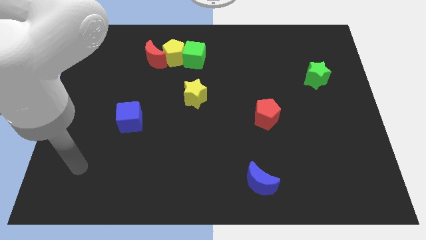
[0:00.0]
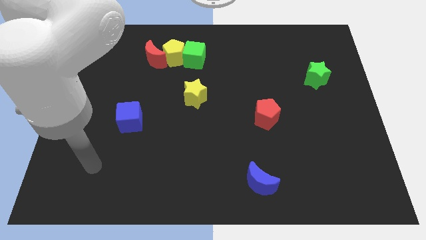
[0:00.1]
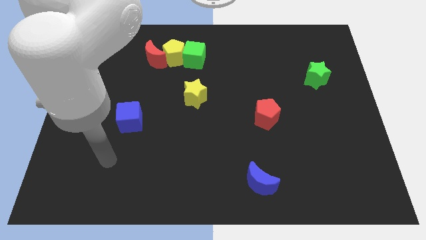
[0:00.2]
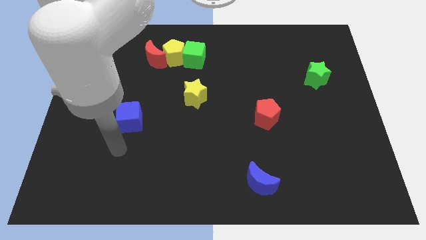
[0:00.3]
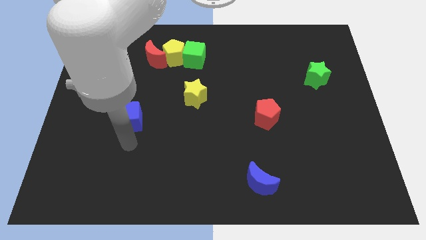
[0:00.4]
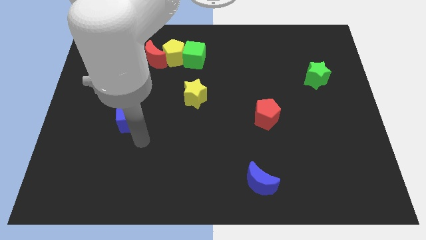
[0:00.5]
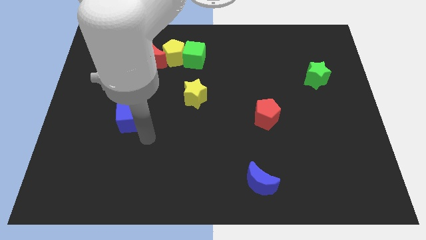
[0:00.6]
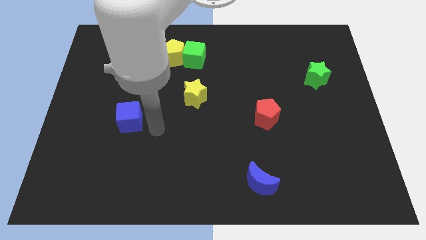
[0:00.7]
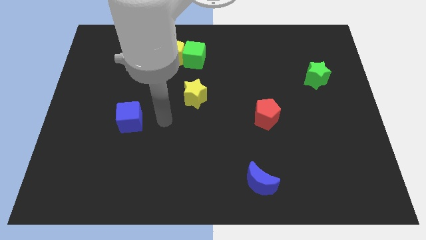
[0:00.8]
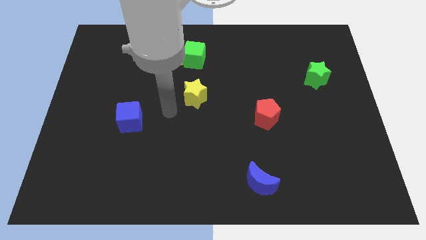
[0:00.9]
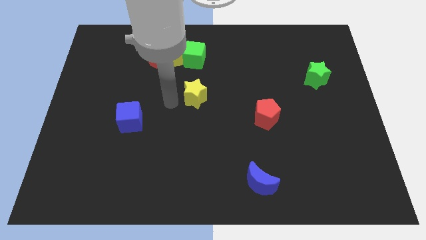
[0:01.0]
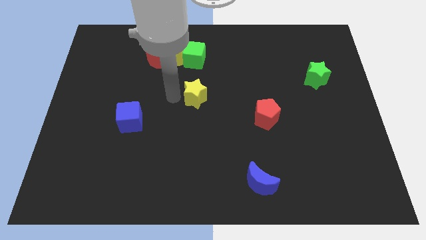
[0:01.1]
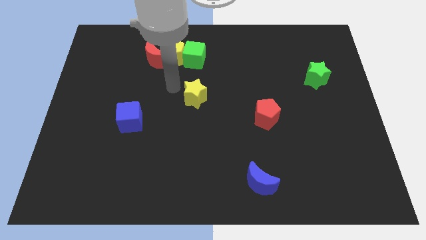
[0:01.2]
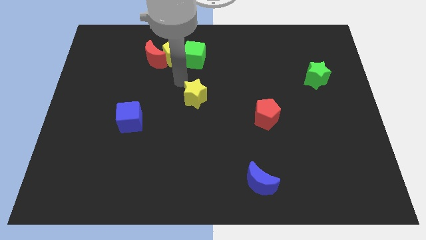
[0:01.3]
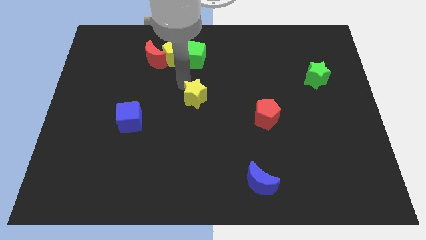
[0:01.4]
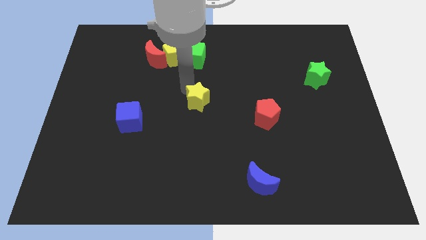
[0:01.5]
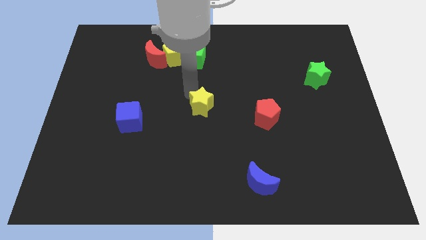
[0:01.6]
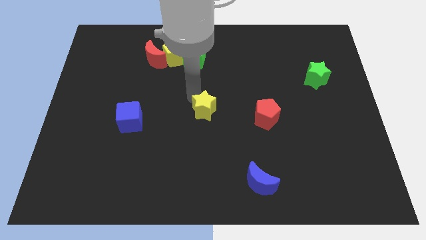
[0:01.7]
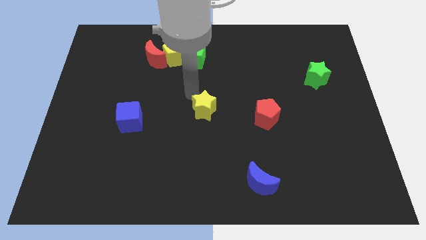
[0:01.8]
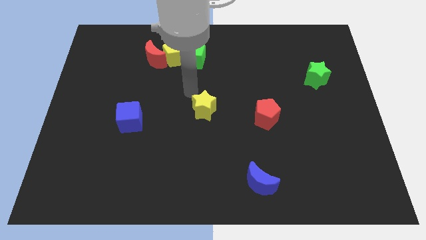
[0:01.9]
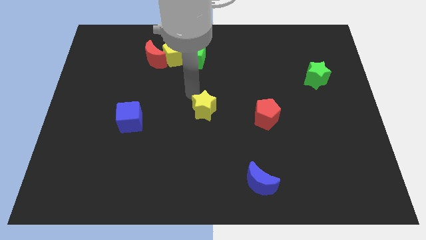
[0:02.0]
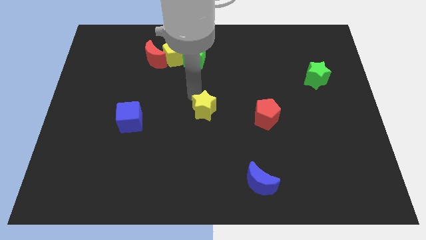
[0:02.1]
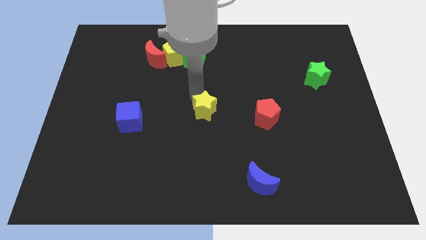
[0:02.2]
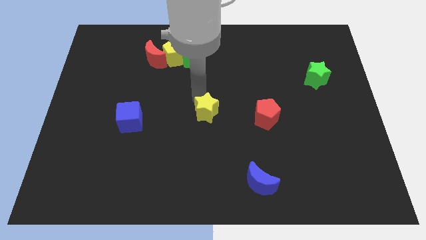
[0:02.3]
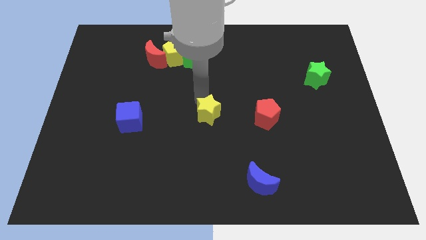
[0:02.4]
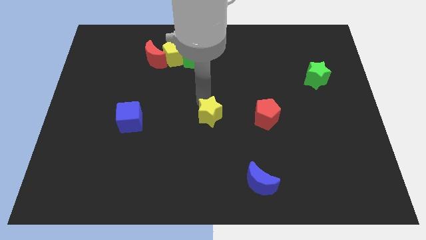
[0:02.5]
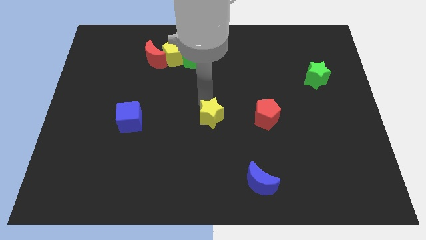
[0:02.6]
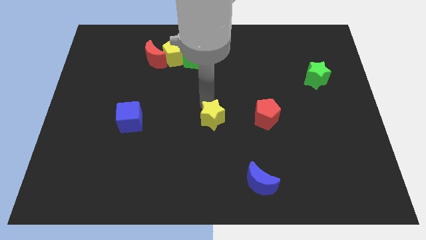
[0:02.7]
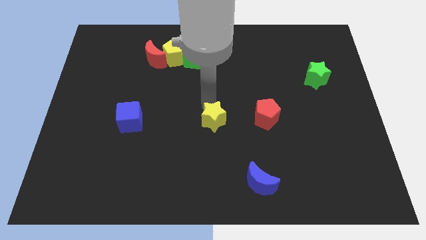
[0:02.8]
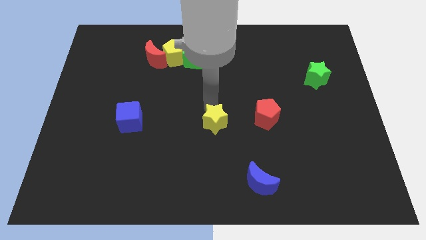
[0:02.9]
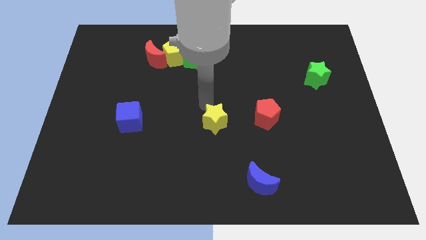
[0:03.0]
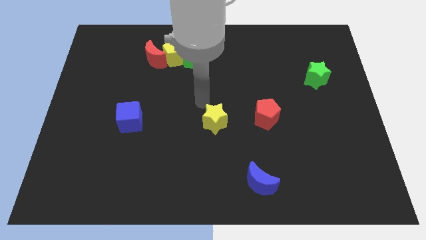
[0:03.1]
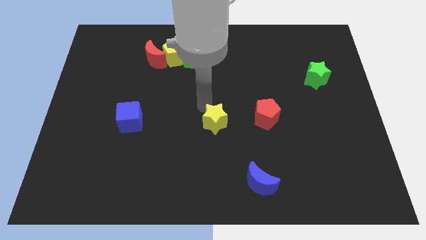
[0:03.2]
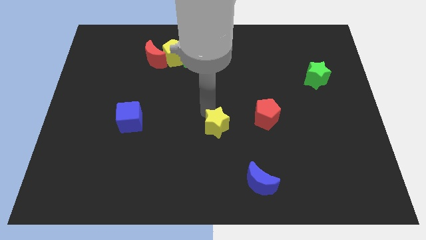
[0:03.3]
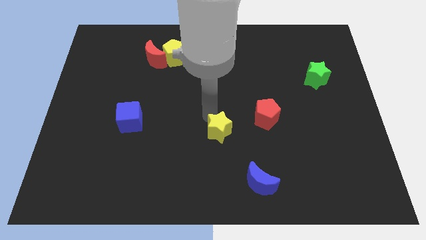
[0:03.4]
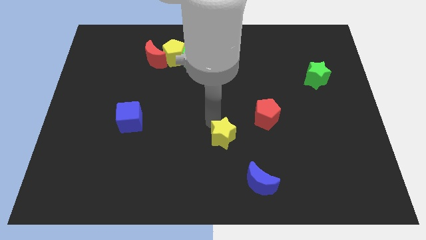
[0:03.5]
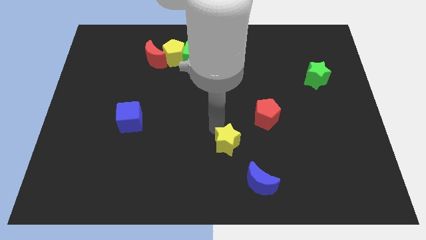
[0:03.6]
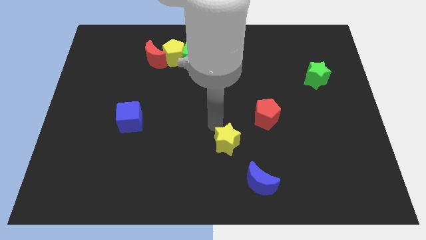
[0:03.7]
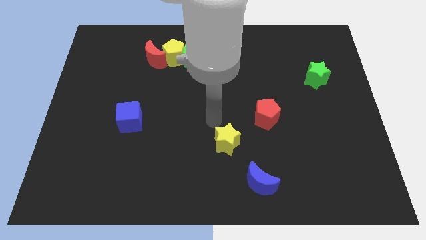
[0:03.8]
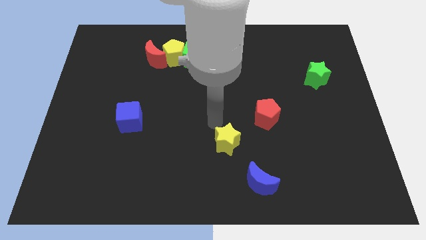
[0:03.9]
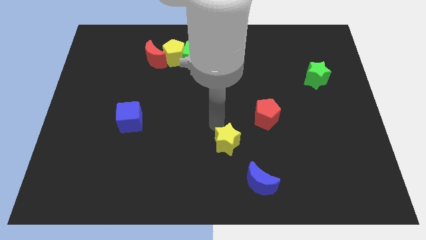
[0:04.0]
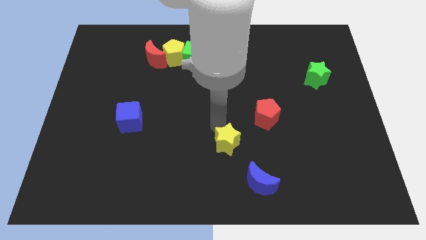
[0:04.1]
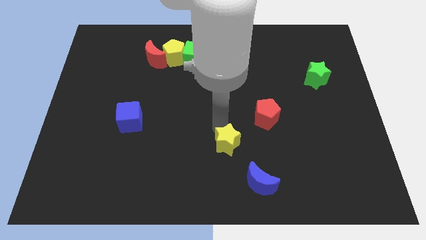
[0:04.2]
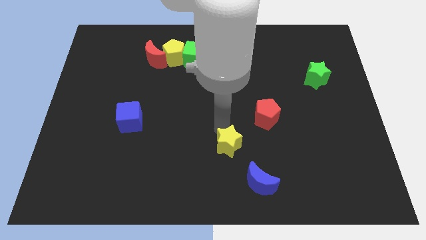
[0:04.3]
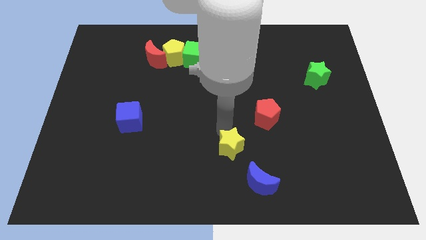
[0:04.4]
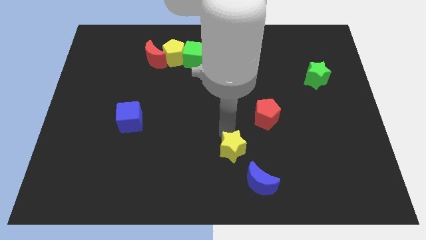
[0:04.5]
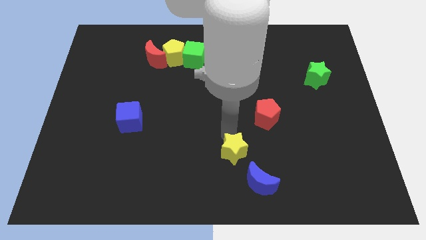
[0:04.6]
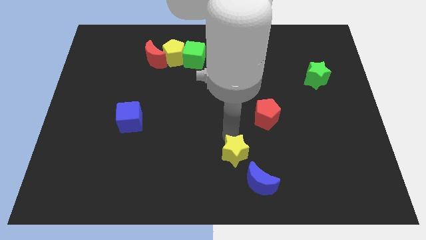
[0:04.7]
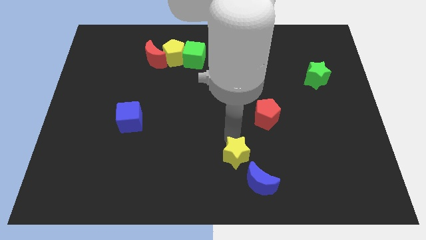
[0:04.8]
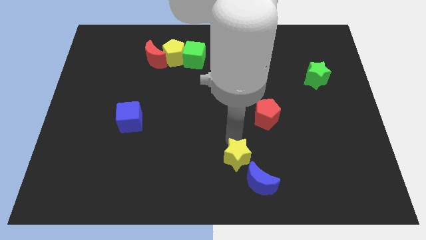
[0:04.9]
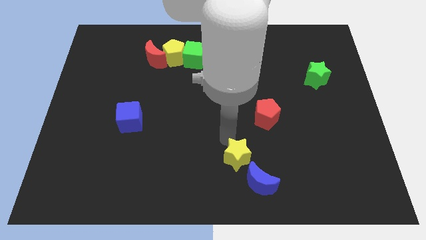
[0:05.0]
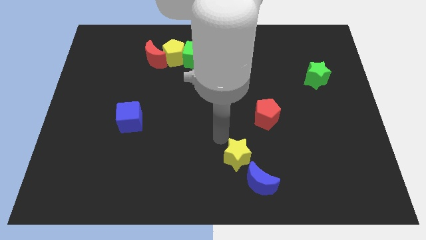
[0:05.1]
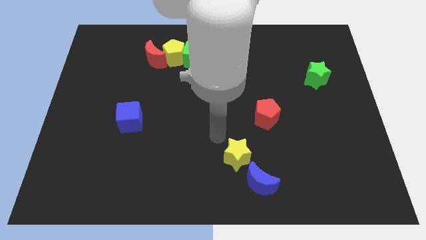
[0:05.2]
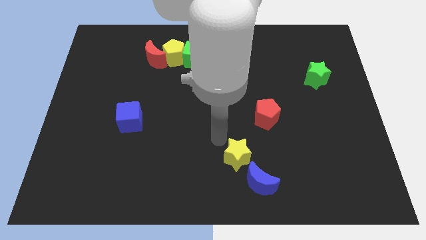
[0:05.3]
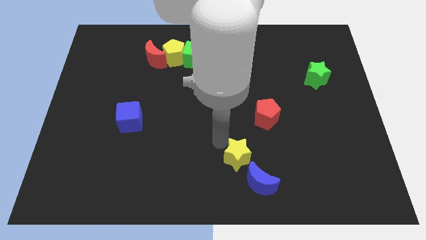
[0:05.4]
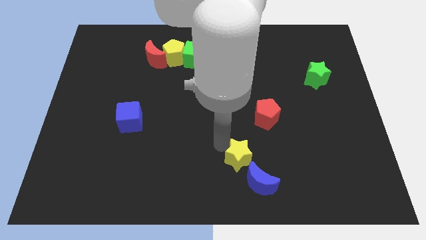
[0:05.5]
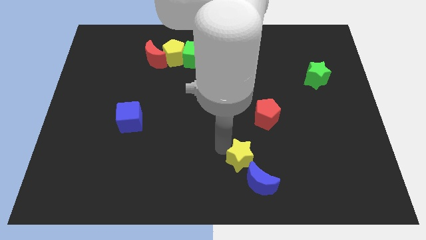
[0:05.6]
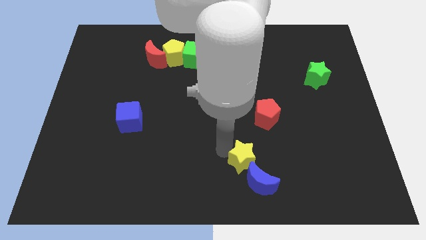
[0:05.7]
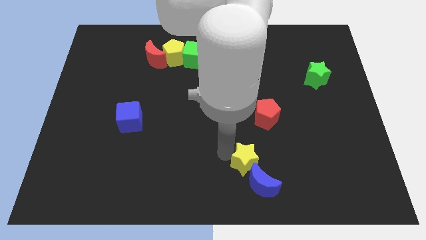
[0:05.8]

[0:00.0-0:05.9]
push the yellow star towards the blue moon
